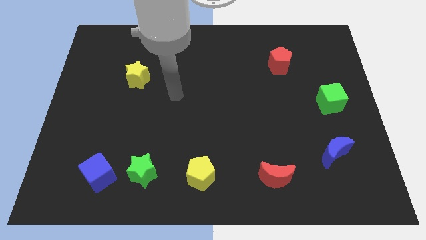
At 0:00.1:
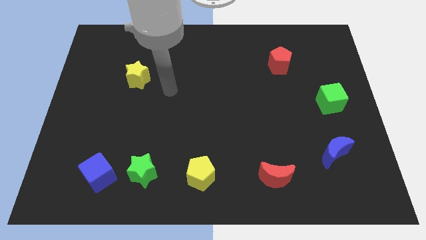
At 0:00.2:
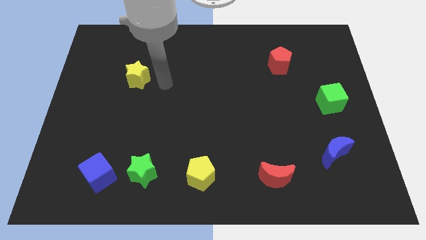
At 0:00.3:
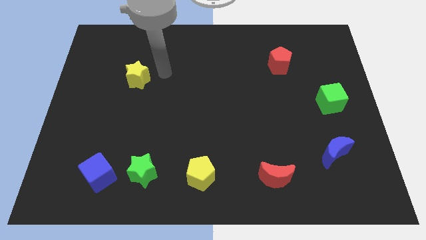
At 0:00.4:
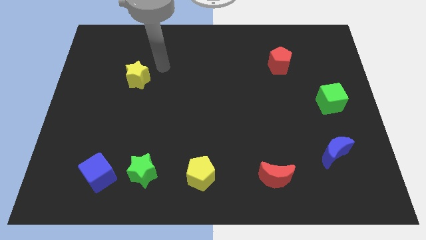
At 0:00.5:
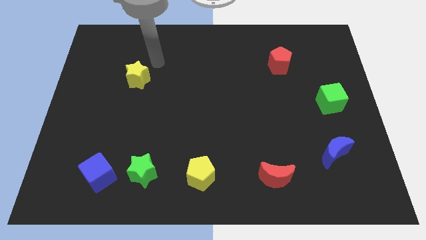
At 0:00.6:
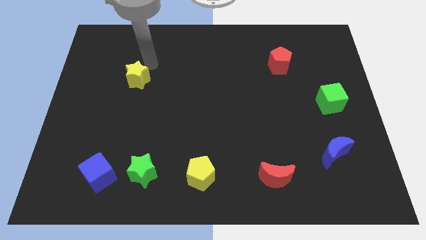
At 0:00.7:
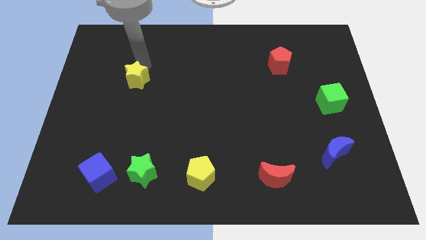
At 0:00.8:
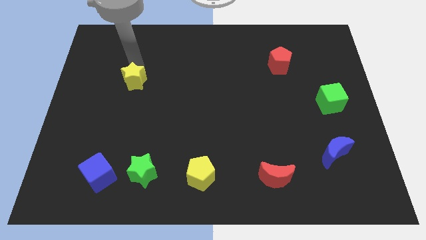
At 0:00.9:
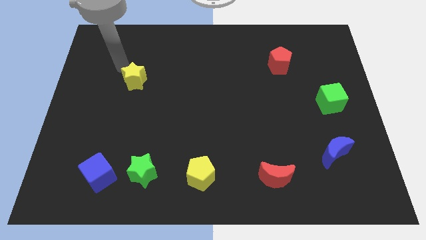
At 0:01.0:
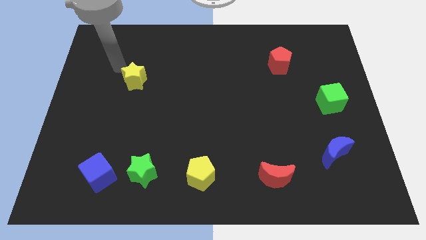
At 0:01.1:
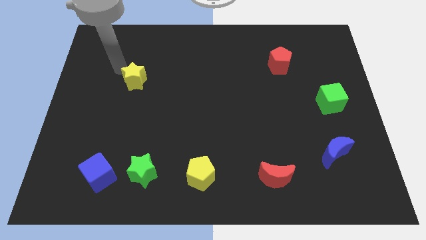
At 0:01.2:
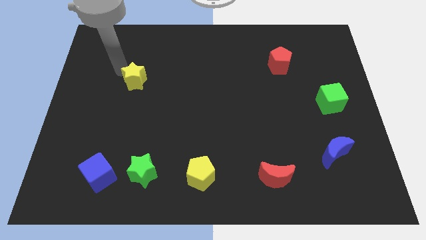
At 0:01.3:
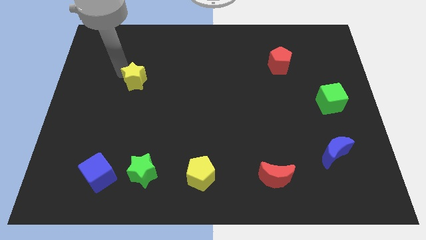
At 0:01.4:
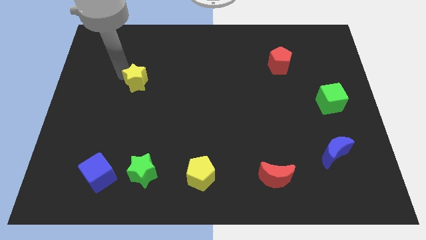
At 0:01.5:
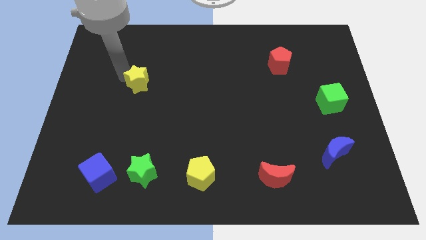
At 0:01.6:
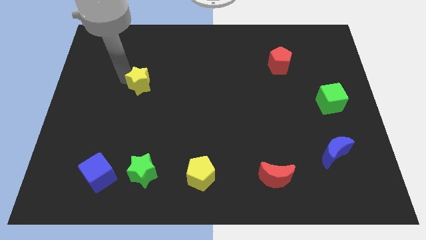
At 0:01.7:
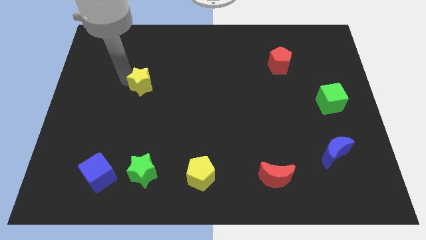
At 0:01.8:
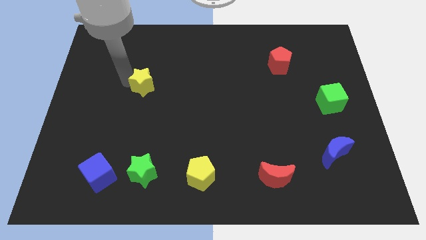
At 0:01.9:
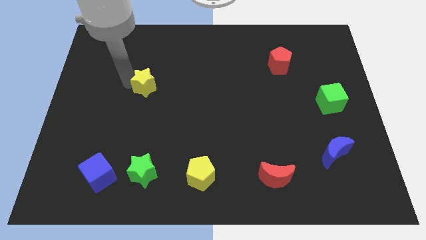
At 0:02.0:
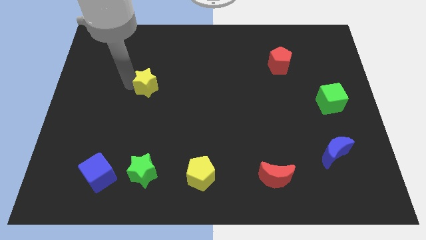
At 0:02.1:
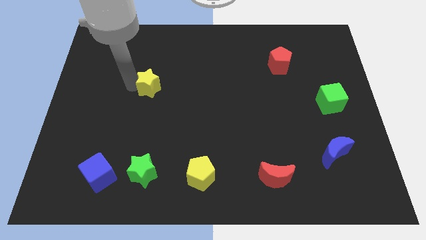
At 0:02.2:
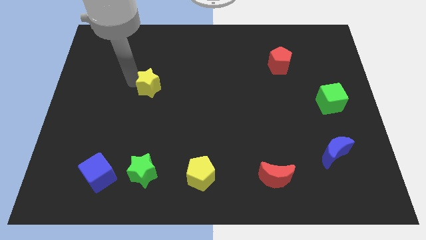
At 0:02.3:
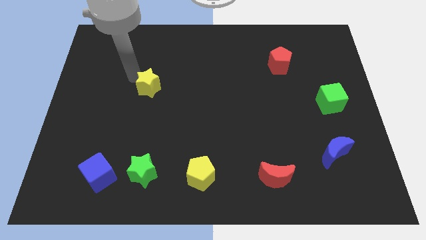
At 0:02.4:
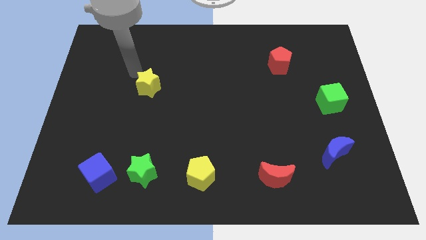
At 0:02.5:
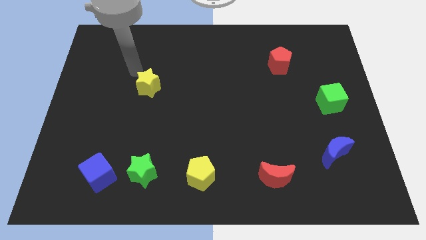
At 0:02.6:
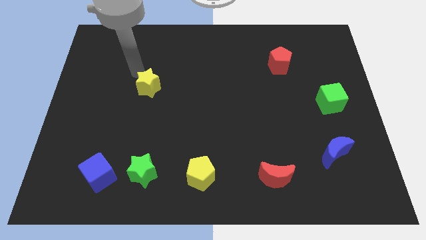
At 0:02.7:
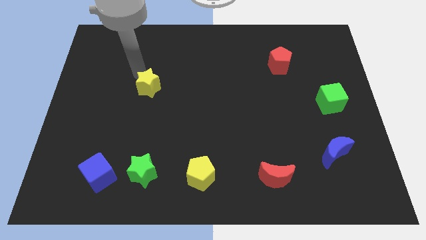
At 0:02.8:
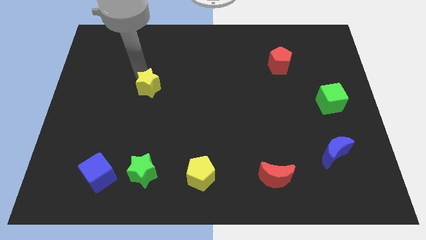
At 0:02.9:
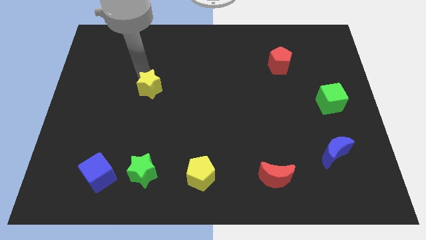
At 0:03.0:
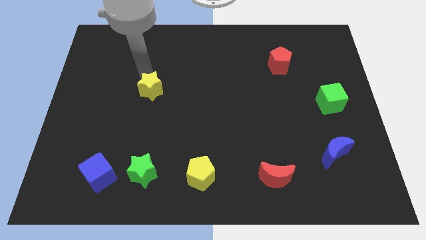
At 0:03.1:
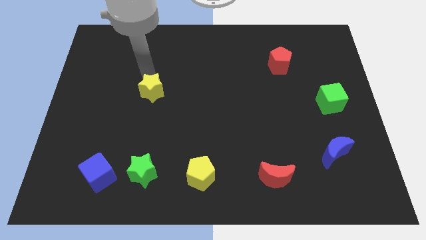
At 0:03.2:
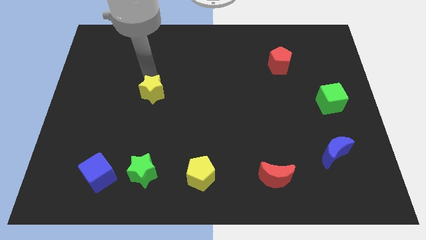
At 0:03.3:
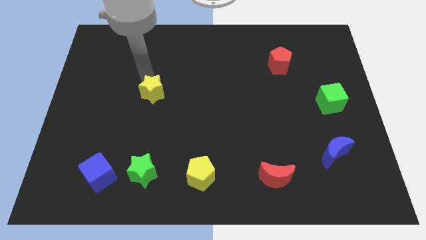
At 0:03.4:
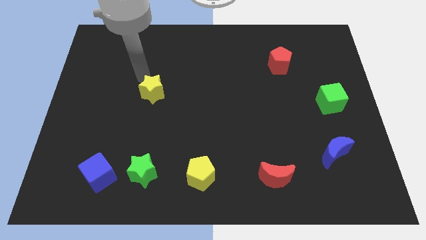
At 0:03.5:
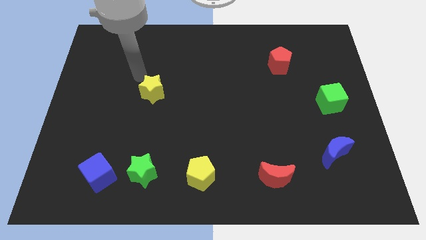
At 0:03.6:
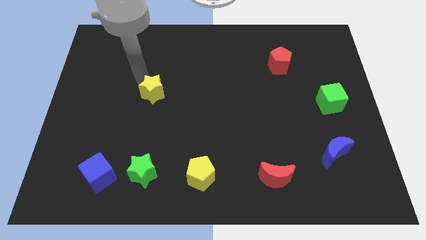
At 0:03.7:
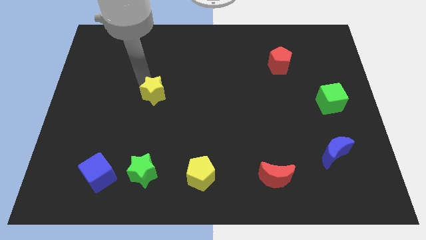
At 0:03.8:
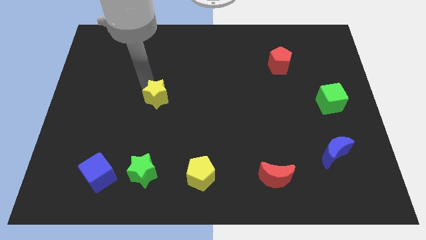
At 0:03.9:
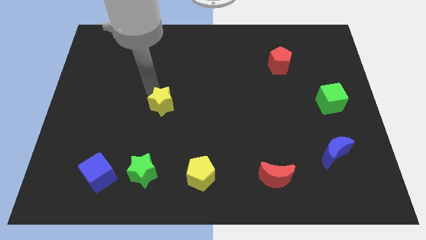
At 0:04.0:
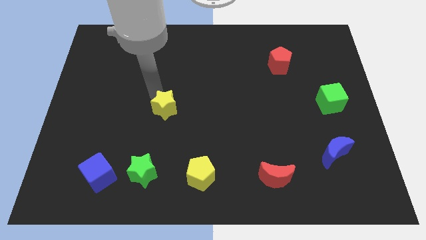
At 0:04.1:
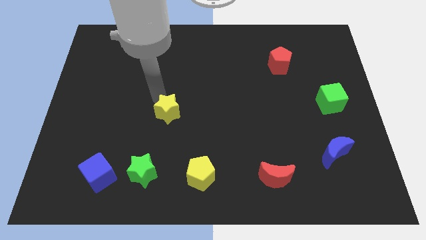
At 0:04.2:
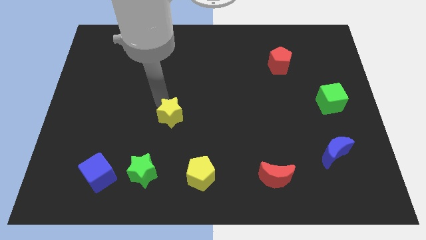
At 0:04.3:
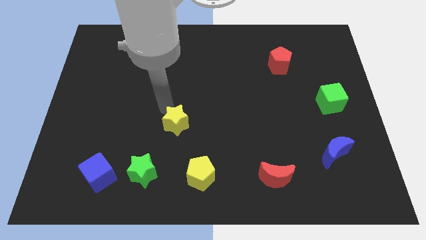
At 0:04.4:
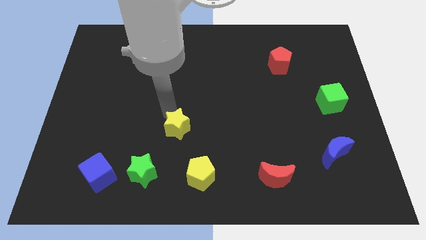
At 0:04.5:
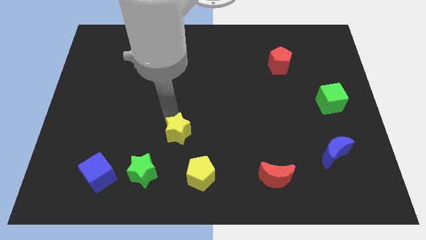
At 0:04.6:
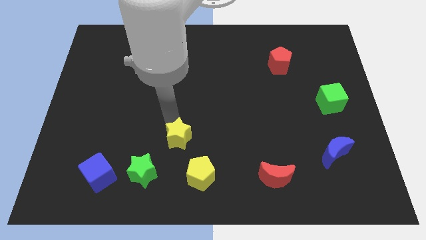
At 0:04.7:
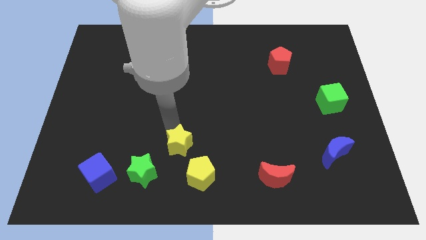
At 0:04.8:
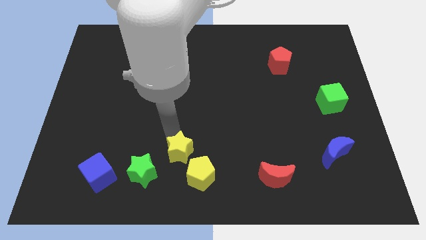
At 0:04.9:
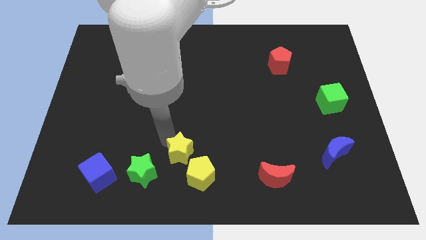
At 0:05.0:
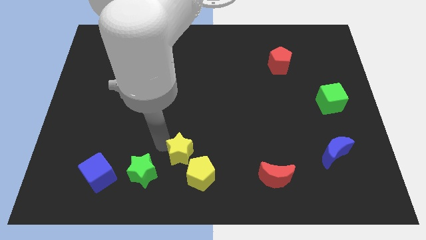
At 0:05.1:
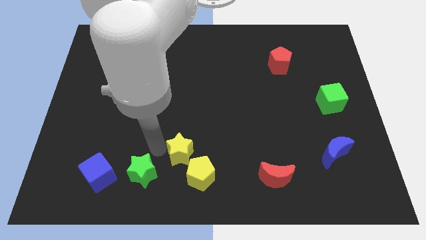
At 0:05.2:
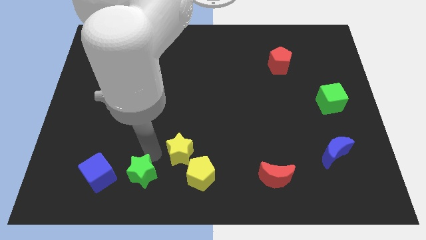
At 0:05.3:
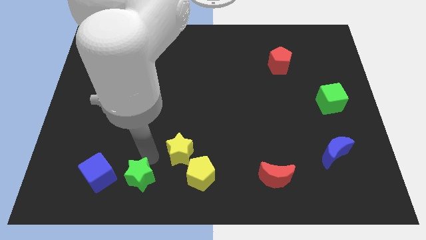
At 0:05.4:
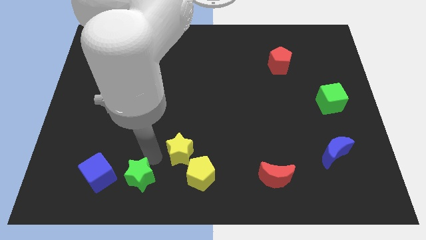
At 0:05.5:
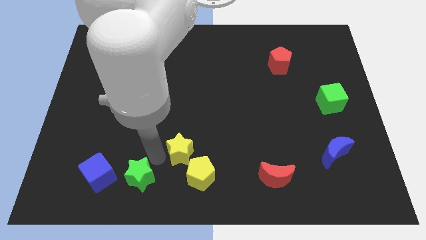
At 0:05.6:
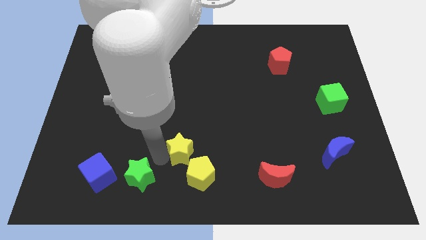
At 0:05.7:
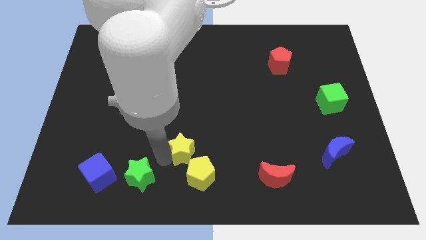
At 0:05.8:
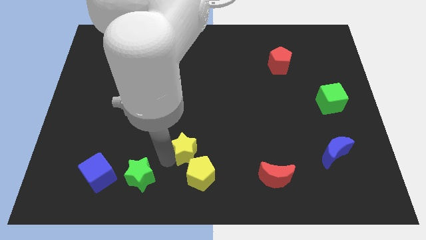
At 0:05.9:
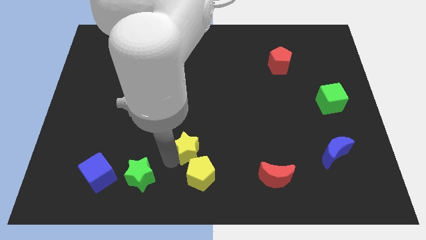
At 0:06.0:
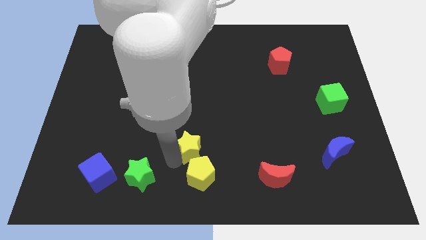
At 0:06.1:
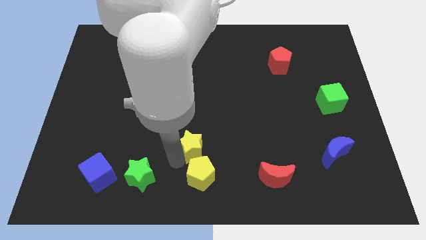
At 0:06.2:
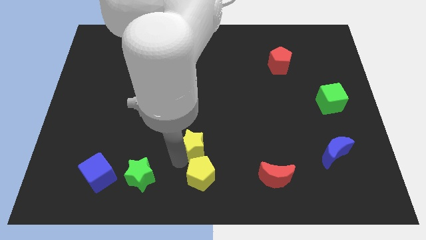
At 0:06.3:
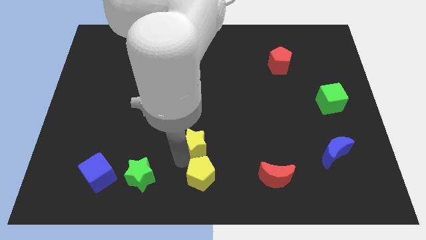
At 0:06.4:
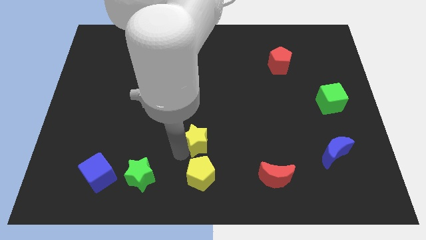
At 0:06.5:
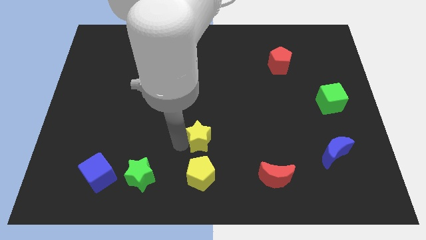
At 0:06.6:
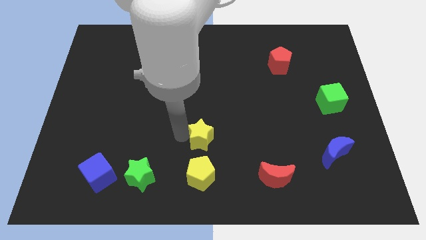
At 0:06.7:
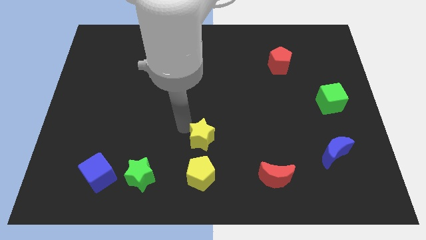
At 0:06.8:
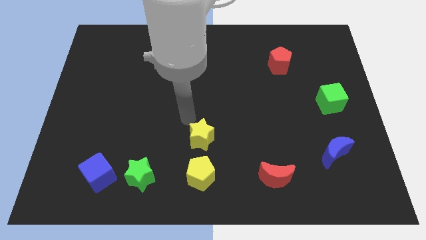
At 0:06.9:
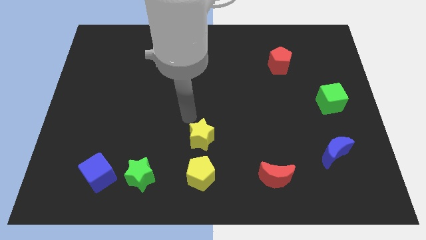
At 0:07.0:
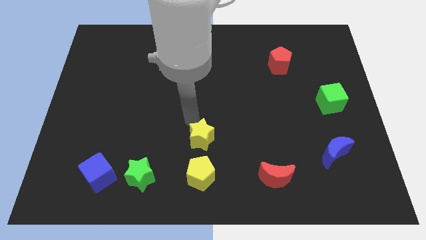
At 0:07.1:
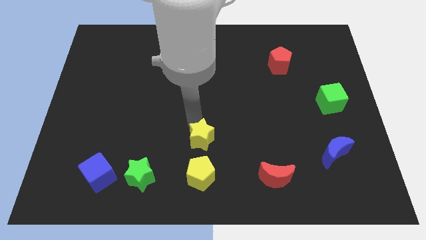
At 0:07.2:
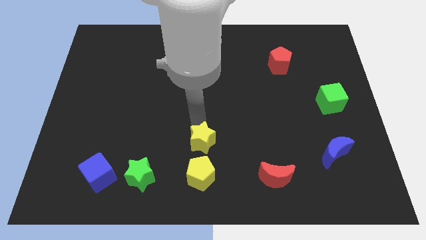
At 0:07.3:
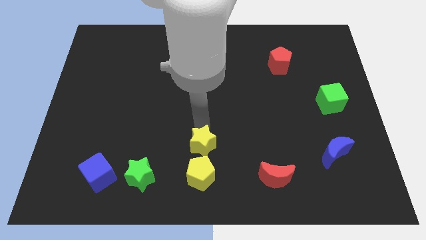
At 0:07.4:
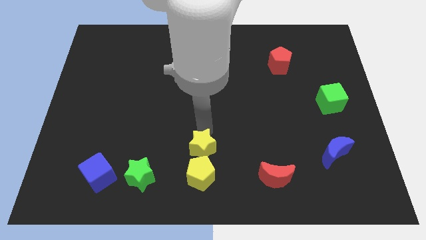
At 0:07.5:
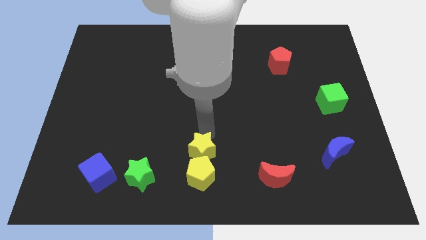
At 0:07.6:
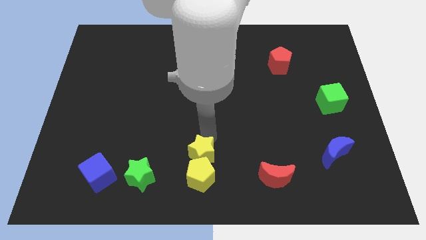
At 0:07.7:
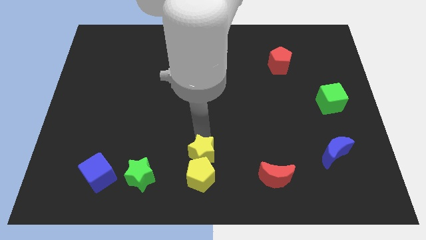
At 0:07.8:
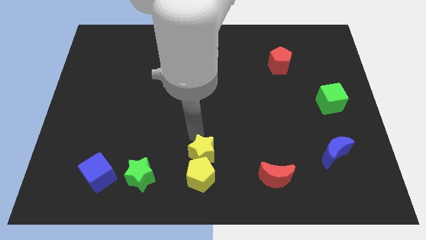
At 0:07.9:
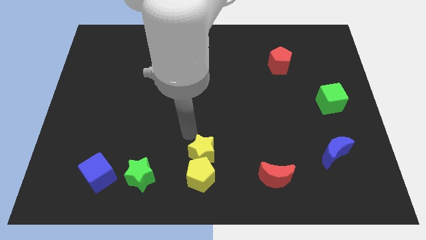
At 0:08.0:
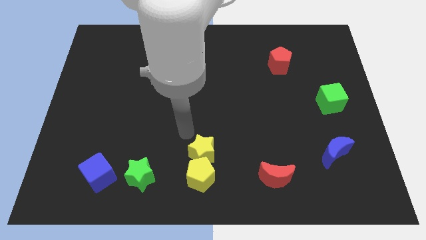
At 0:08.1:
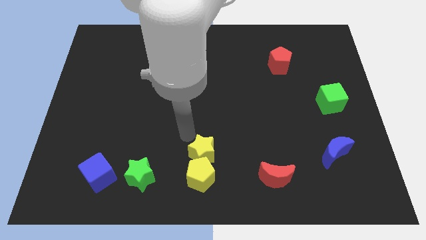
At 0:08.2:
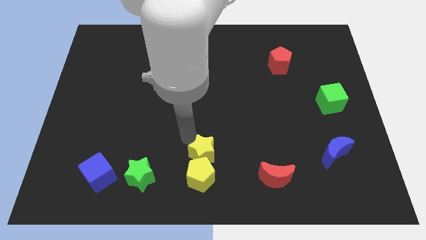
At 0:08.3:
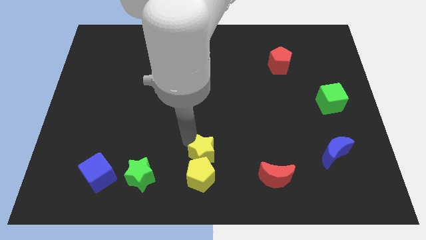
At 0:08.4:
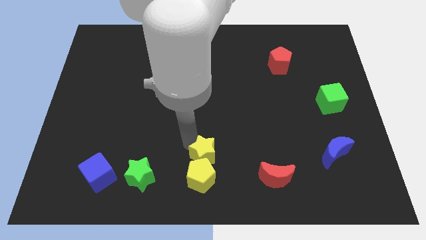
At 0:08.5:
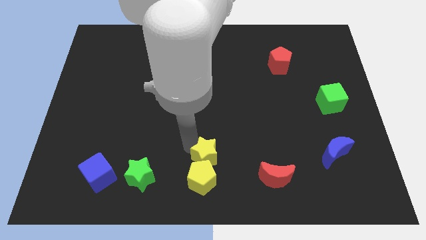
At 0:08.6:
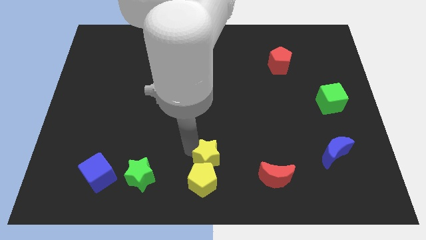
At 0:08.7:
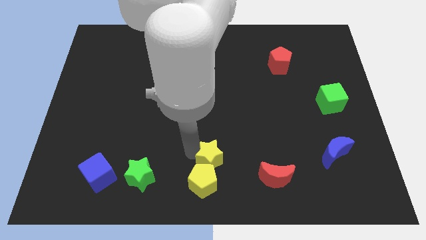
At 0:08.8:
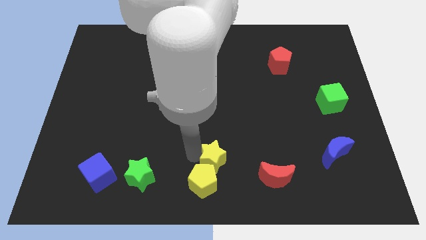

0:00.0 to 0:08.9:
put the yellow star to the left of the red moon
